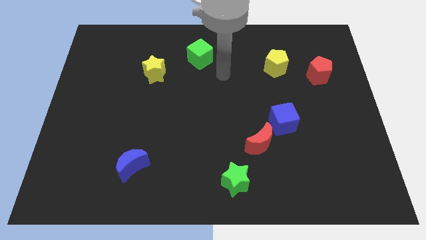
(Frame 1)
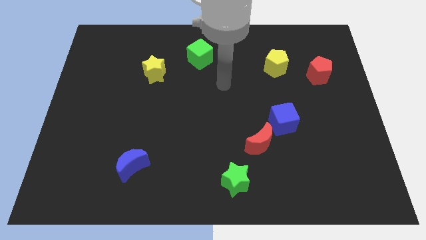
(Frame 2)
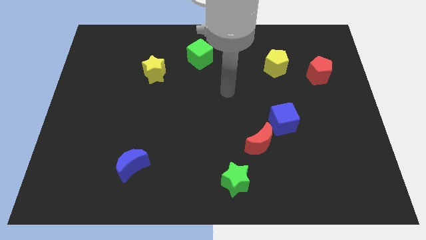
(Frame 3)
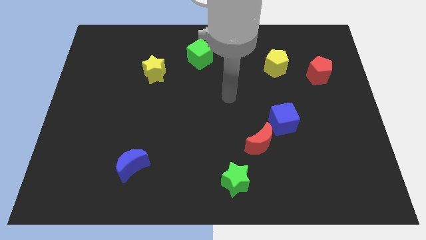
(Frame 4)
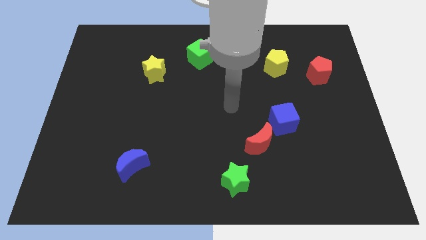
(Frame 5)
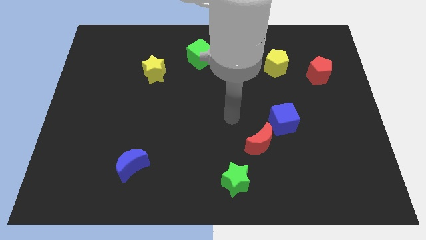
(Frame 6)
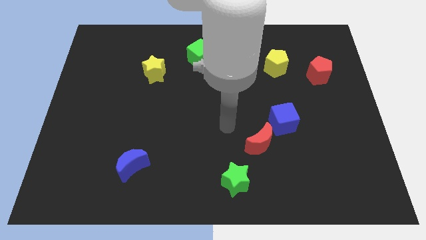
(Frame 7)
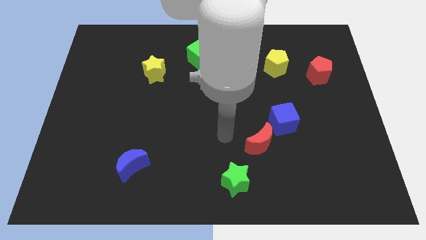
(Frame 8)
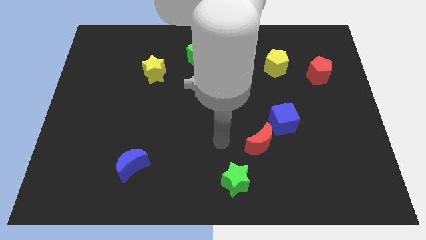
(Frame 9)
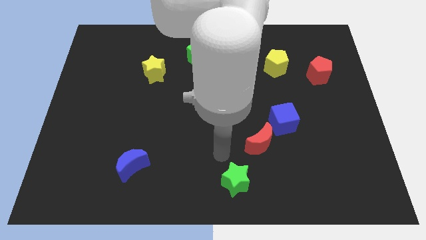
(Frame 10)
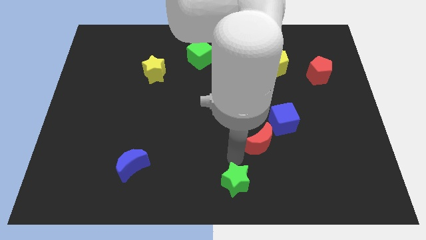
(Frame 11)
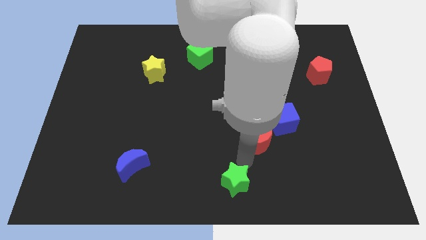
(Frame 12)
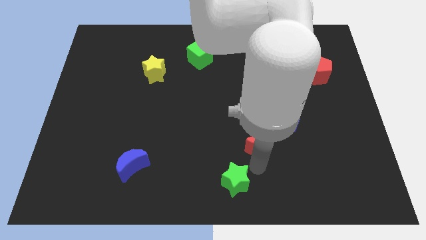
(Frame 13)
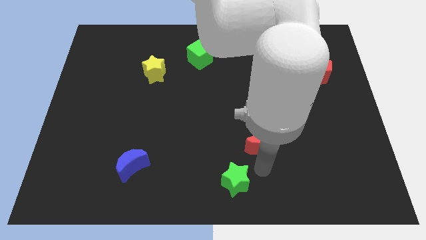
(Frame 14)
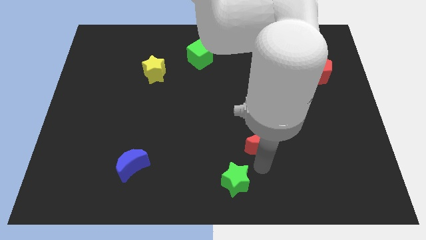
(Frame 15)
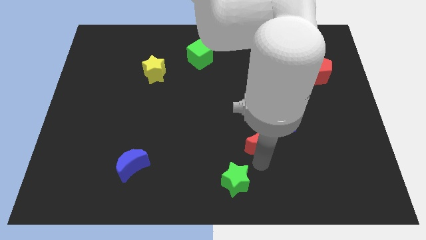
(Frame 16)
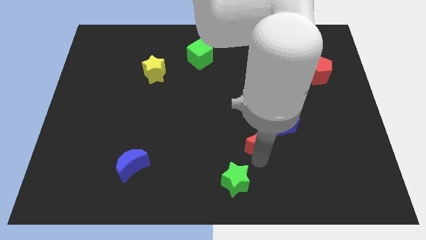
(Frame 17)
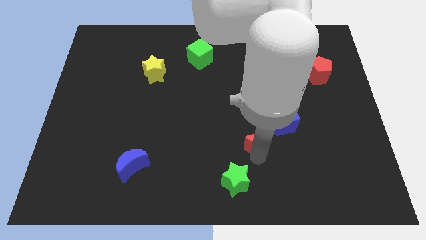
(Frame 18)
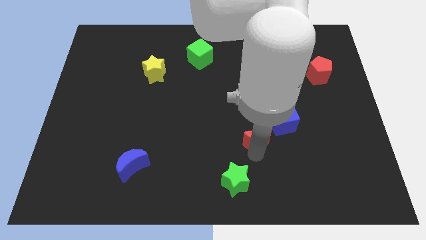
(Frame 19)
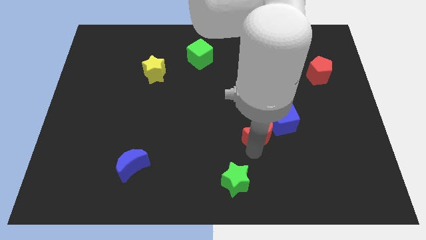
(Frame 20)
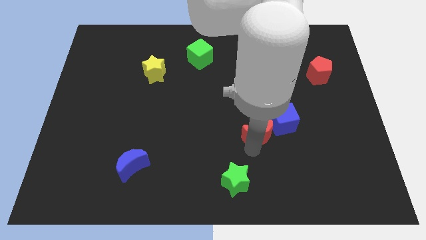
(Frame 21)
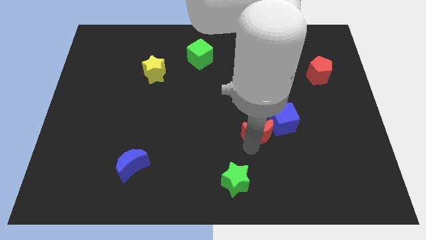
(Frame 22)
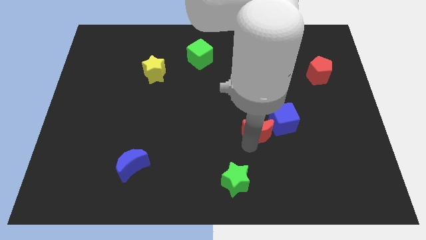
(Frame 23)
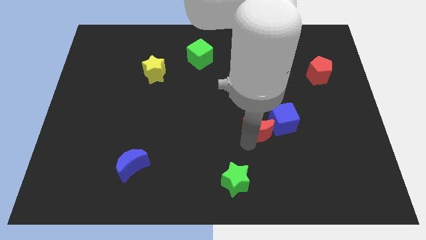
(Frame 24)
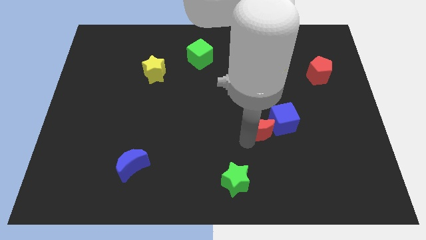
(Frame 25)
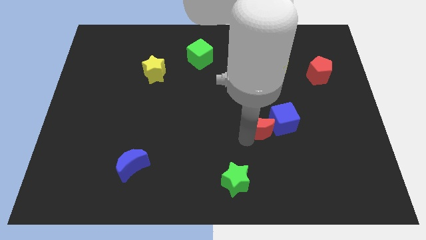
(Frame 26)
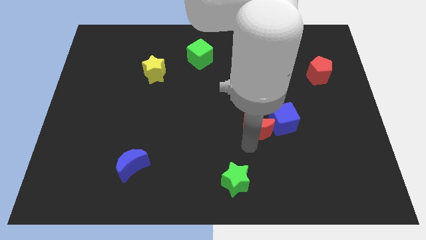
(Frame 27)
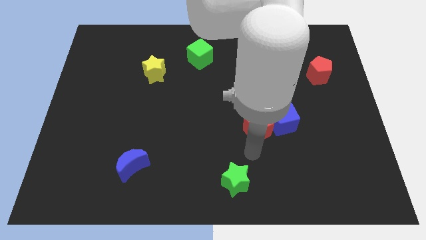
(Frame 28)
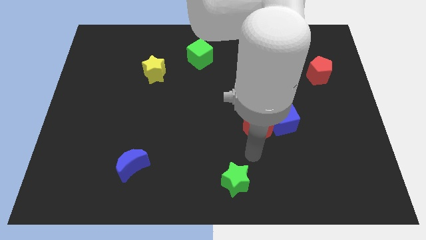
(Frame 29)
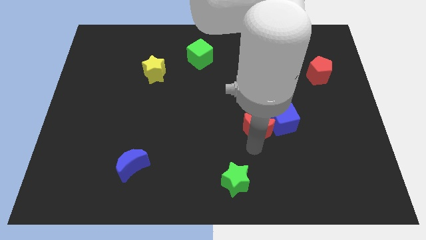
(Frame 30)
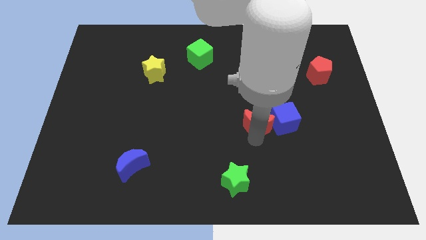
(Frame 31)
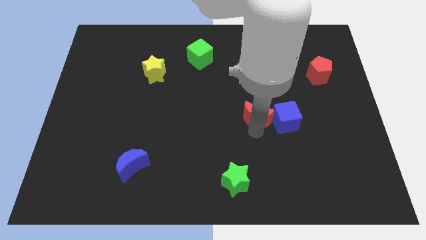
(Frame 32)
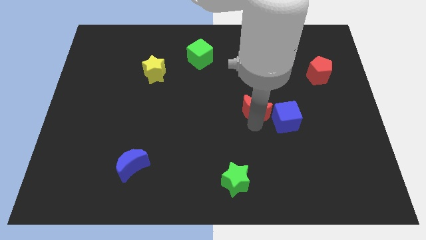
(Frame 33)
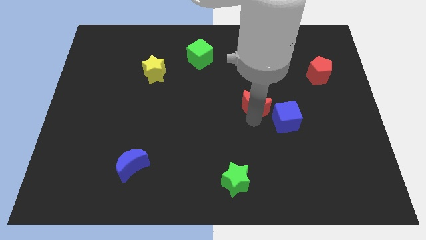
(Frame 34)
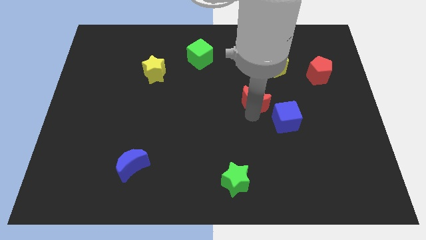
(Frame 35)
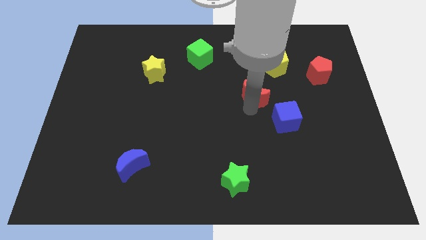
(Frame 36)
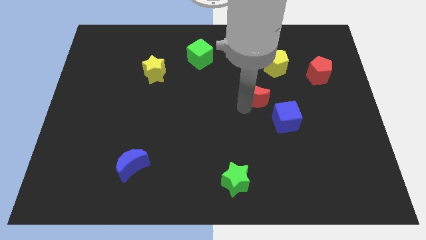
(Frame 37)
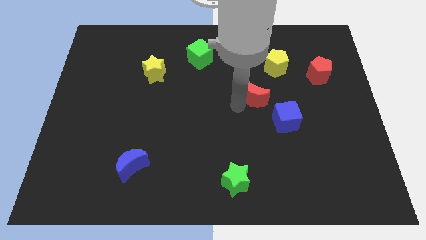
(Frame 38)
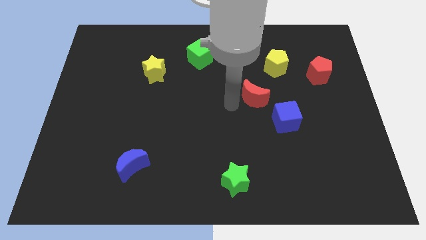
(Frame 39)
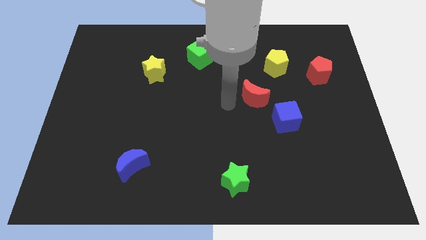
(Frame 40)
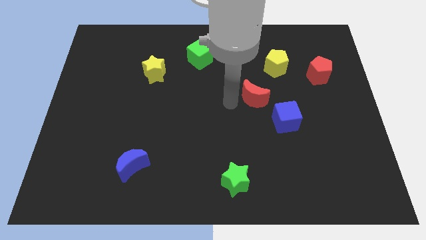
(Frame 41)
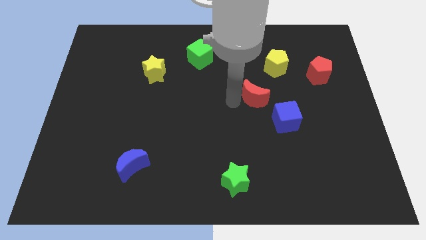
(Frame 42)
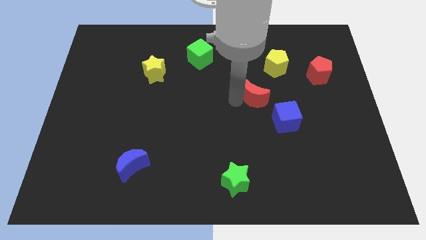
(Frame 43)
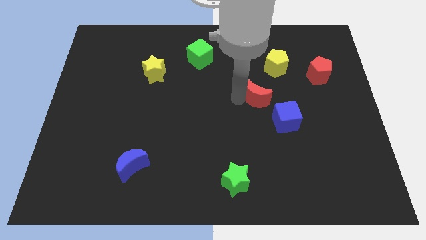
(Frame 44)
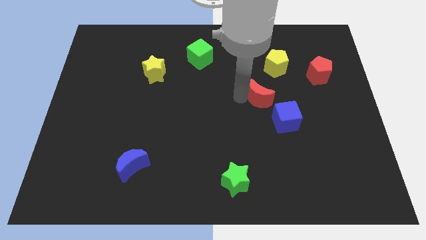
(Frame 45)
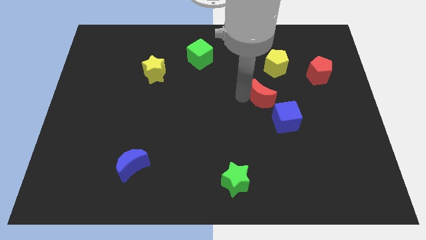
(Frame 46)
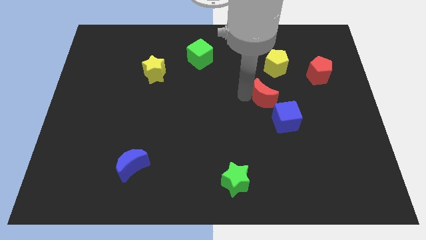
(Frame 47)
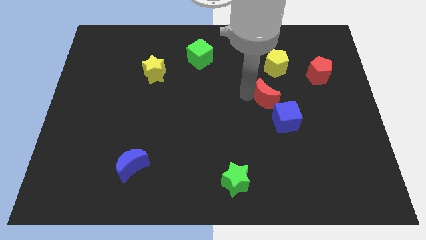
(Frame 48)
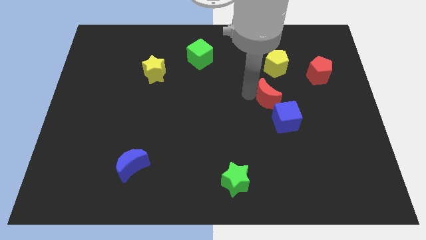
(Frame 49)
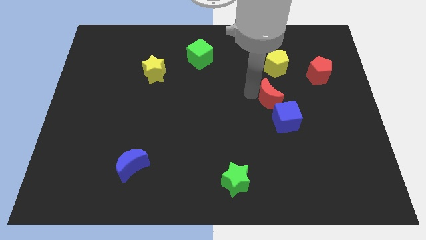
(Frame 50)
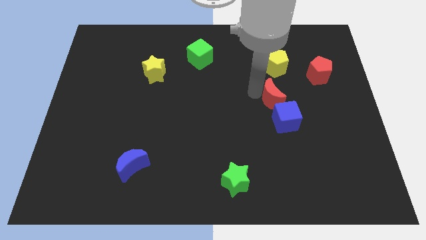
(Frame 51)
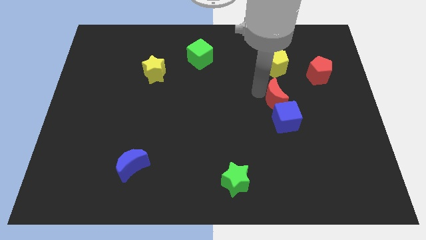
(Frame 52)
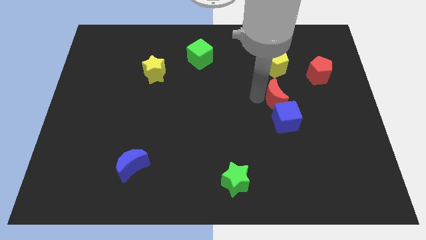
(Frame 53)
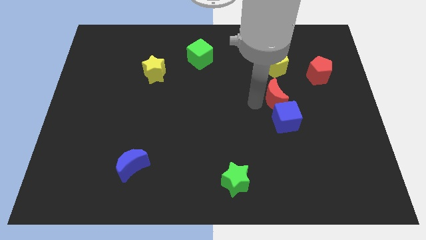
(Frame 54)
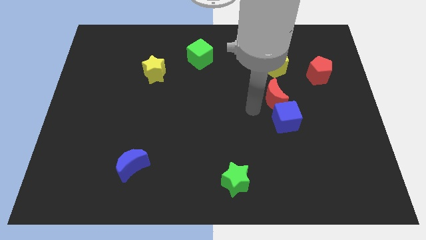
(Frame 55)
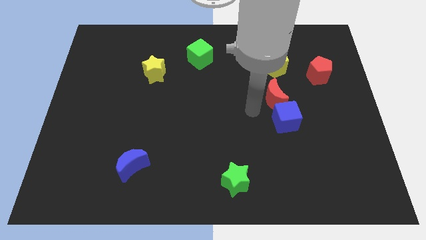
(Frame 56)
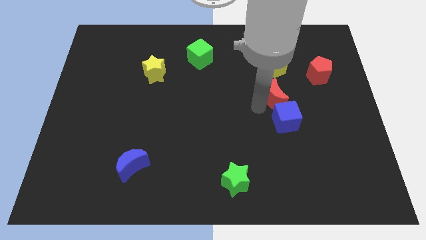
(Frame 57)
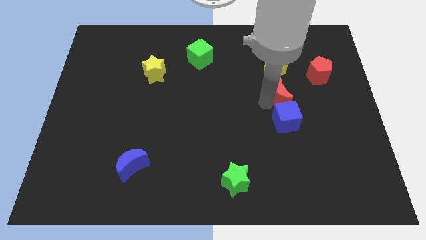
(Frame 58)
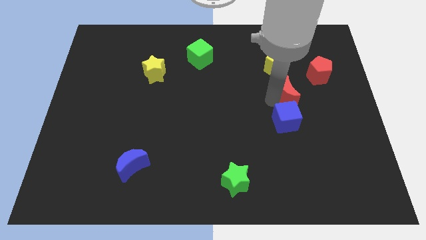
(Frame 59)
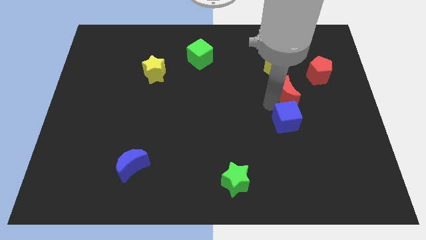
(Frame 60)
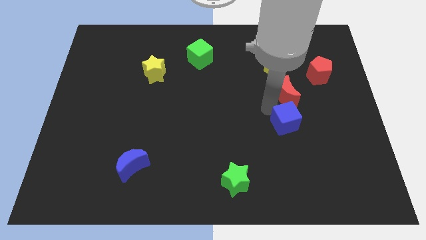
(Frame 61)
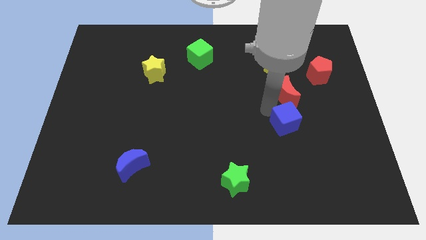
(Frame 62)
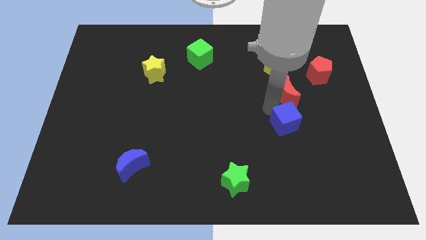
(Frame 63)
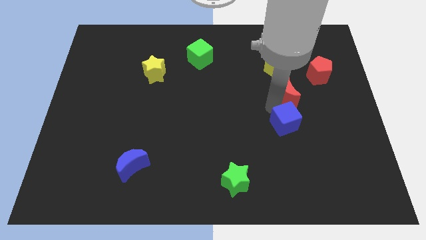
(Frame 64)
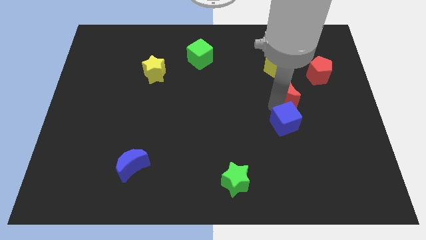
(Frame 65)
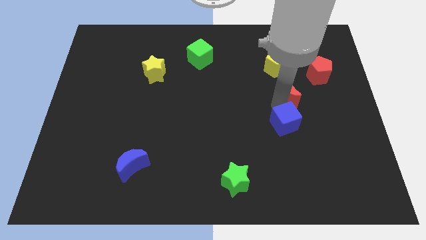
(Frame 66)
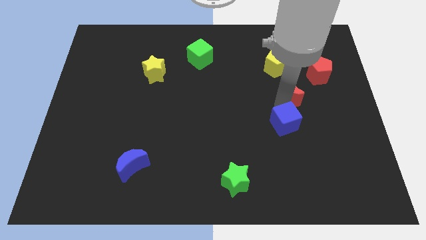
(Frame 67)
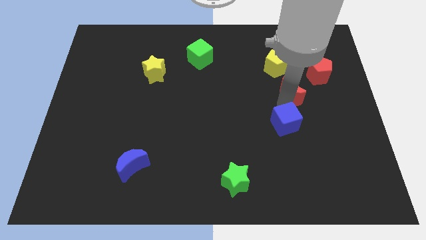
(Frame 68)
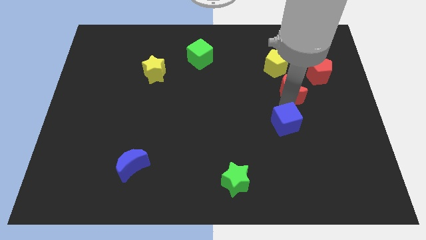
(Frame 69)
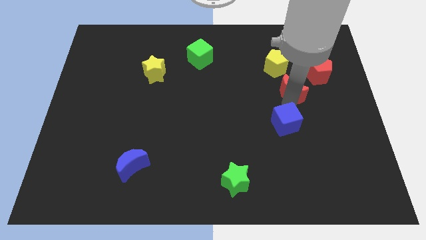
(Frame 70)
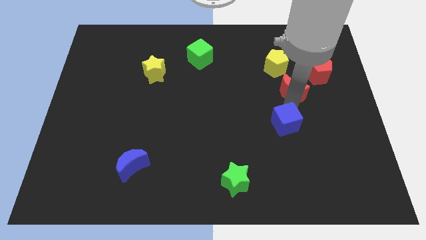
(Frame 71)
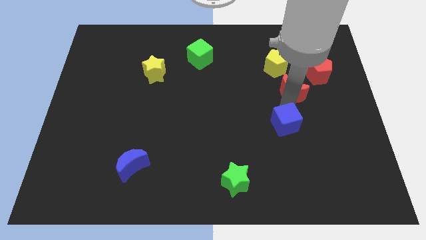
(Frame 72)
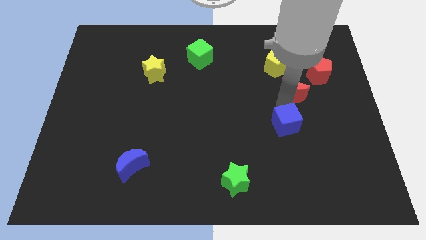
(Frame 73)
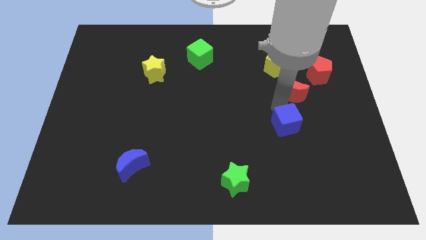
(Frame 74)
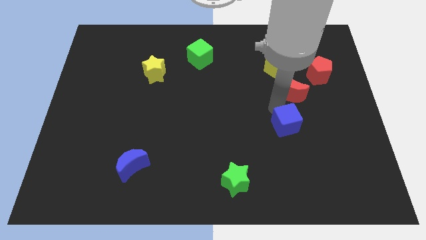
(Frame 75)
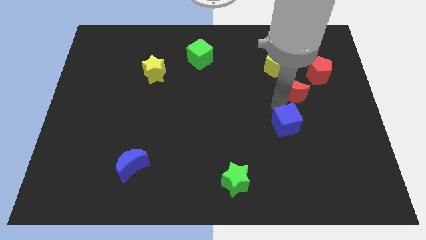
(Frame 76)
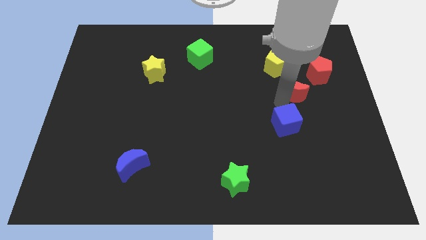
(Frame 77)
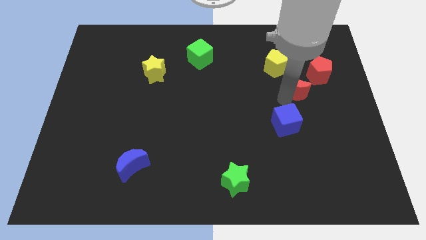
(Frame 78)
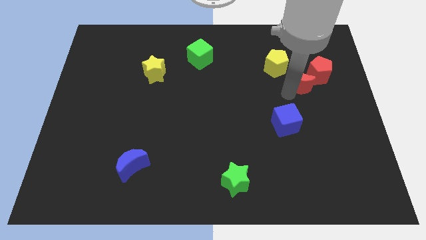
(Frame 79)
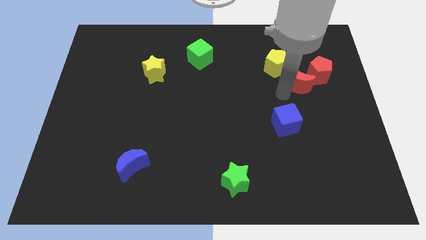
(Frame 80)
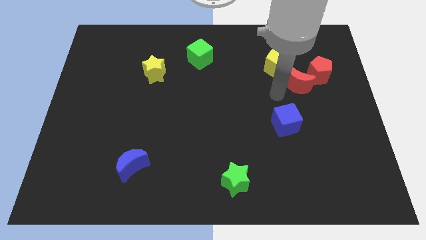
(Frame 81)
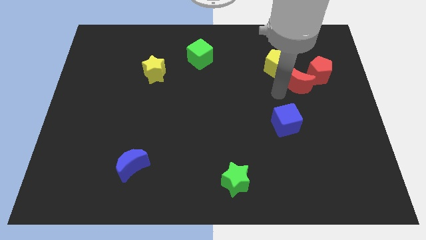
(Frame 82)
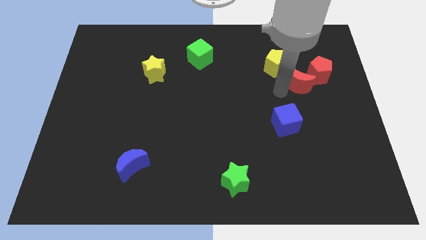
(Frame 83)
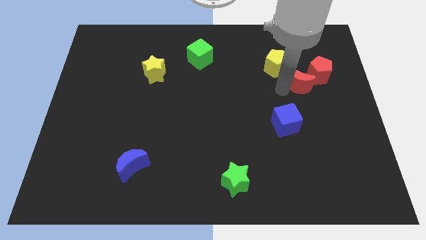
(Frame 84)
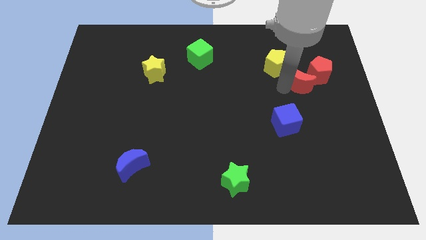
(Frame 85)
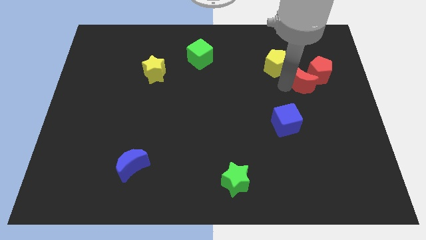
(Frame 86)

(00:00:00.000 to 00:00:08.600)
put the red moon towards the red pentagon
